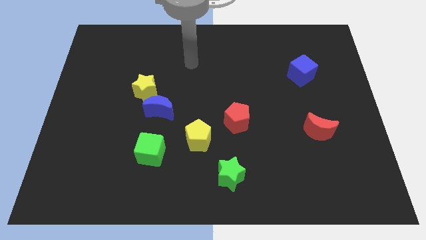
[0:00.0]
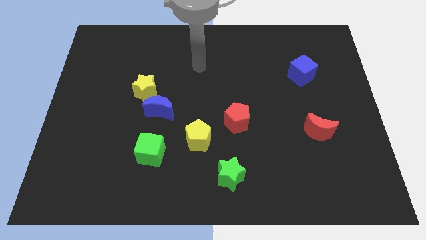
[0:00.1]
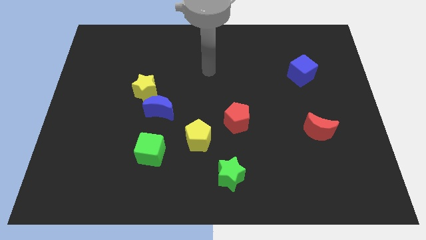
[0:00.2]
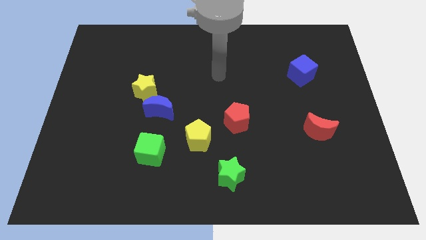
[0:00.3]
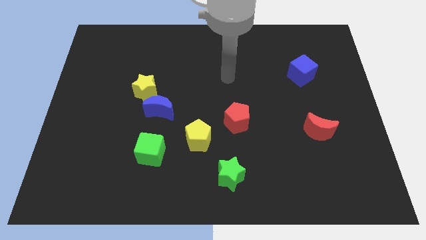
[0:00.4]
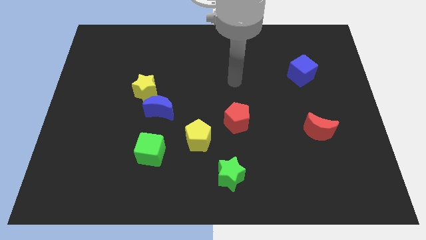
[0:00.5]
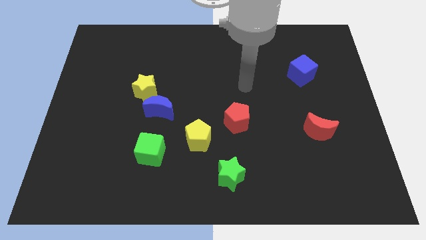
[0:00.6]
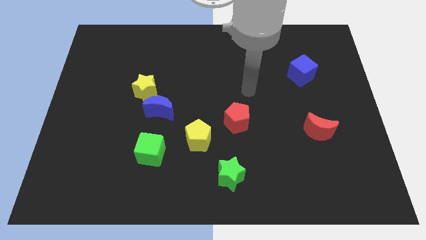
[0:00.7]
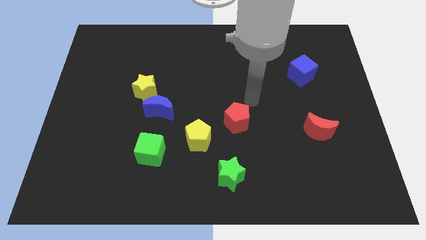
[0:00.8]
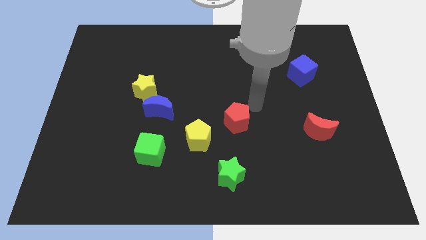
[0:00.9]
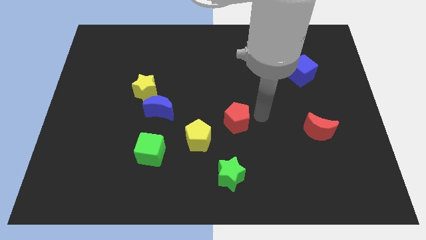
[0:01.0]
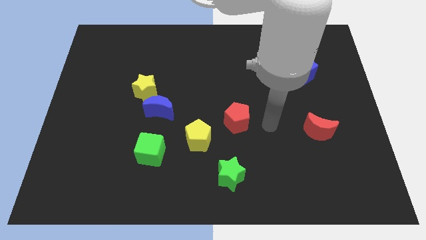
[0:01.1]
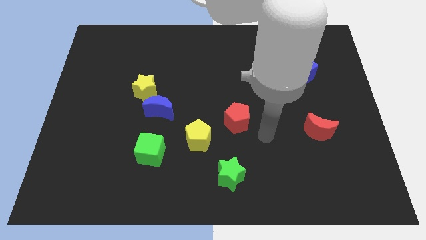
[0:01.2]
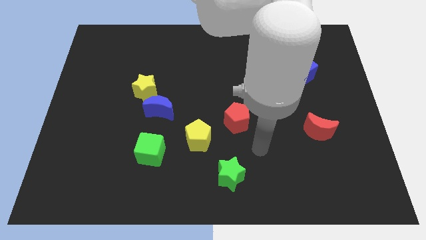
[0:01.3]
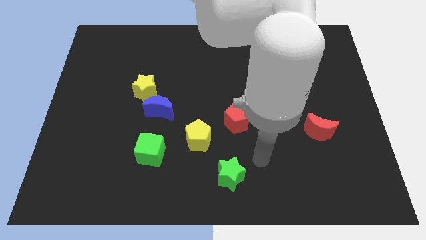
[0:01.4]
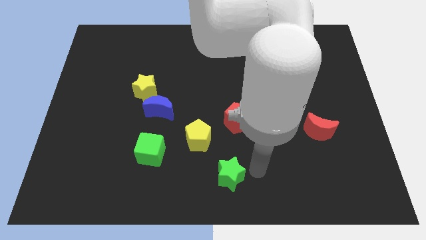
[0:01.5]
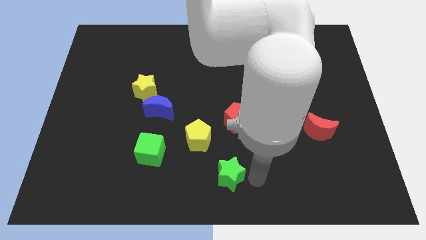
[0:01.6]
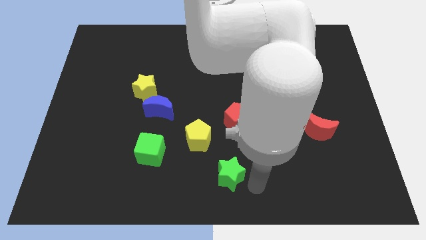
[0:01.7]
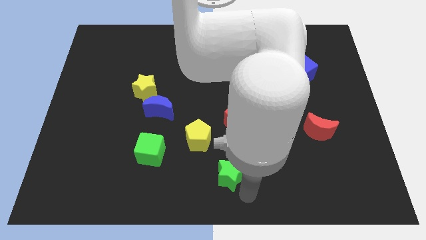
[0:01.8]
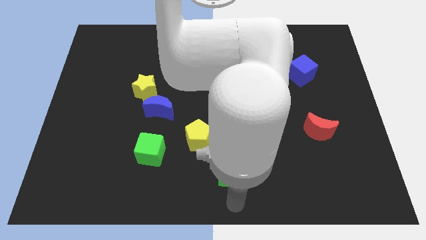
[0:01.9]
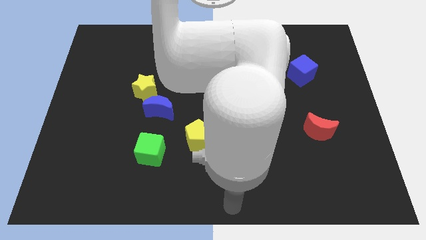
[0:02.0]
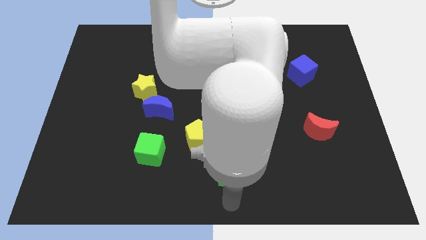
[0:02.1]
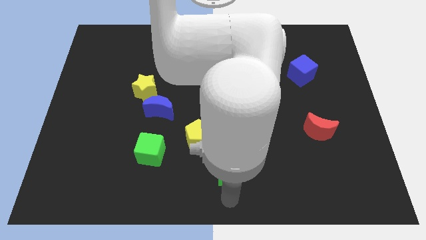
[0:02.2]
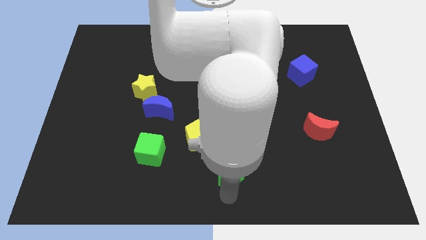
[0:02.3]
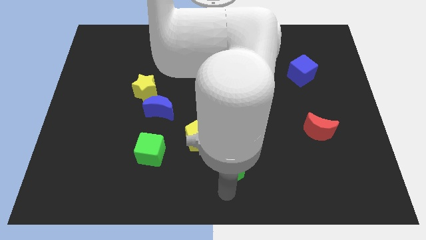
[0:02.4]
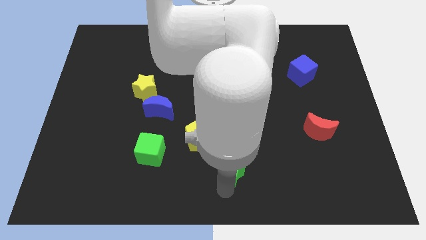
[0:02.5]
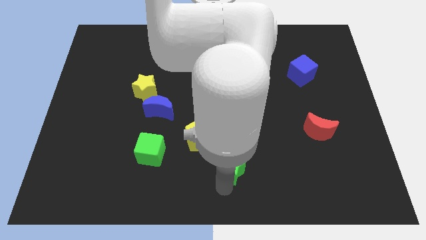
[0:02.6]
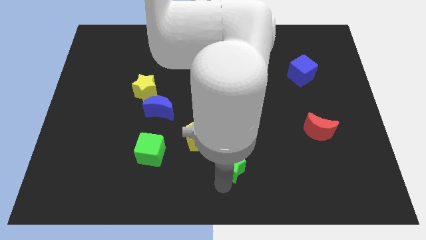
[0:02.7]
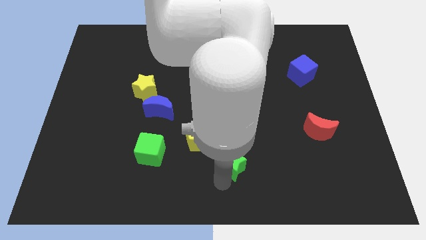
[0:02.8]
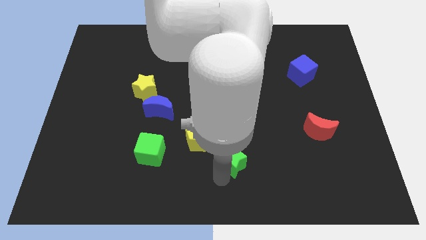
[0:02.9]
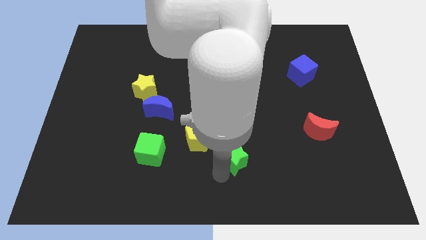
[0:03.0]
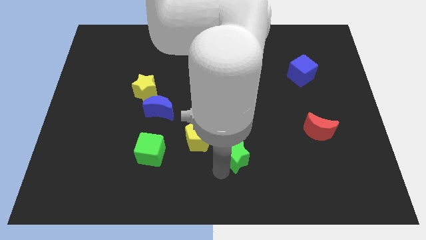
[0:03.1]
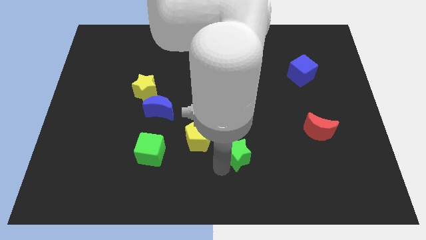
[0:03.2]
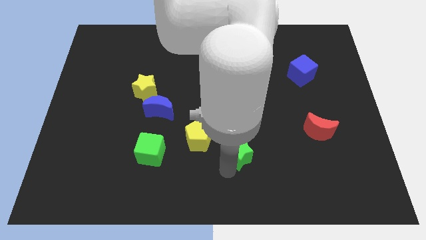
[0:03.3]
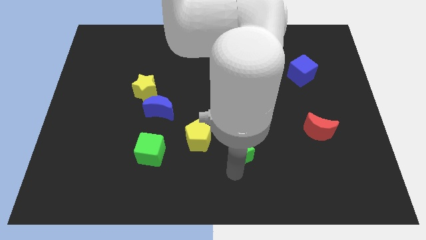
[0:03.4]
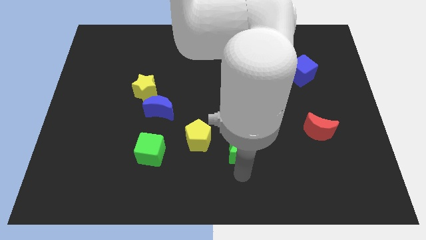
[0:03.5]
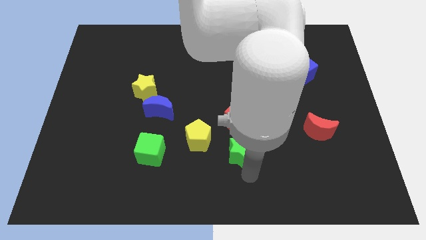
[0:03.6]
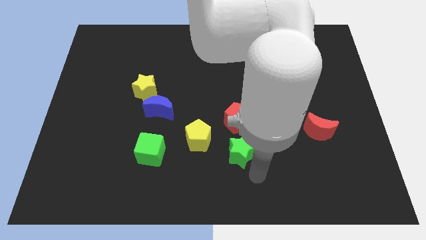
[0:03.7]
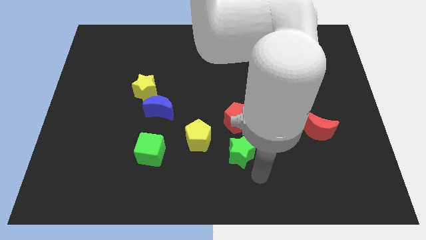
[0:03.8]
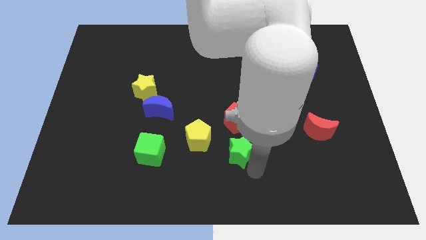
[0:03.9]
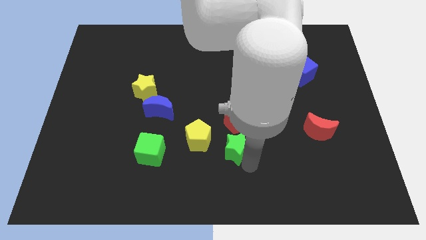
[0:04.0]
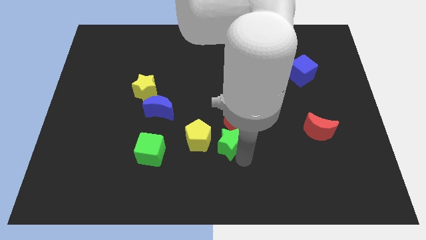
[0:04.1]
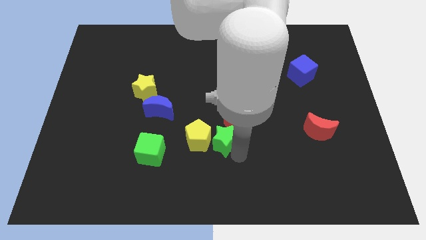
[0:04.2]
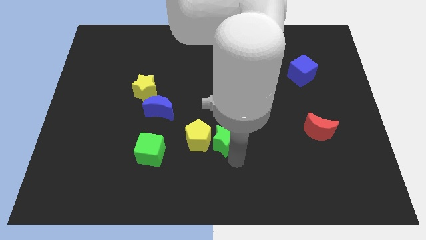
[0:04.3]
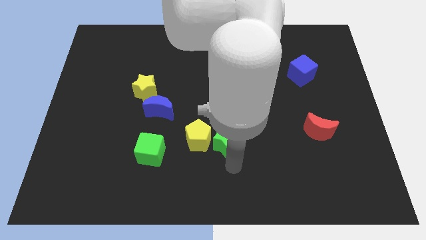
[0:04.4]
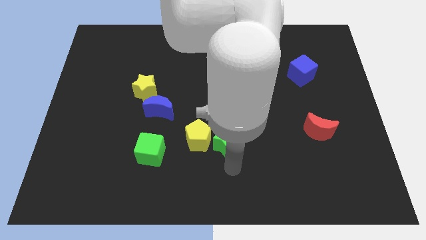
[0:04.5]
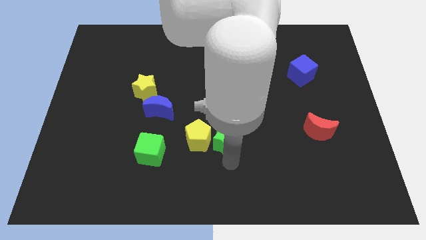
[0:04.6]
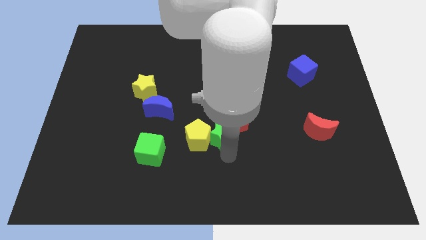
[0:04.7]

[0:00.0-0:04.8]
push the green star to the left of the red pentagon

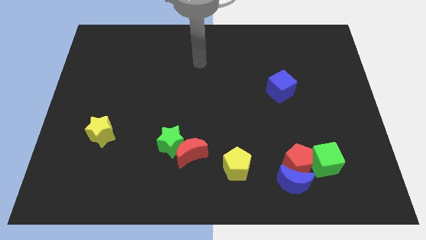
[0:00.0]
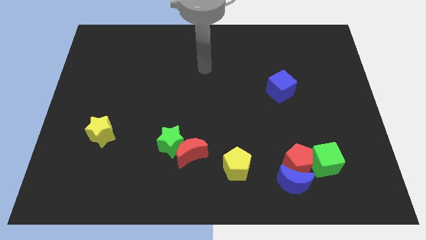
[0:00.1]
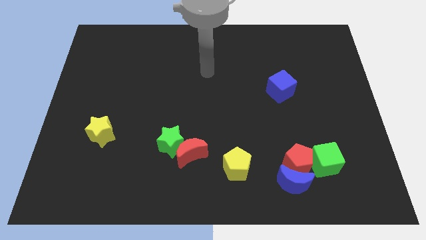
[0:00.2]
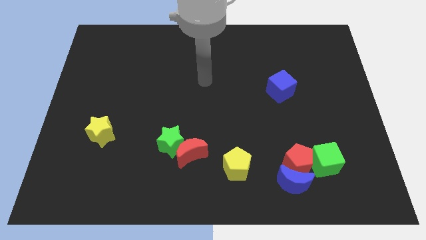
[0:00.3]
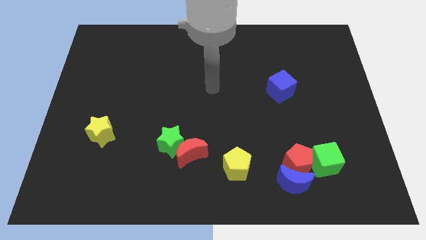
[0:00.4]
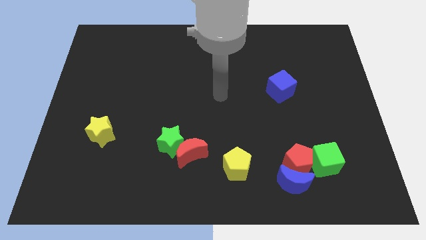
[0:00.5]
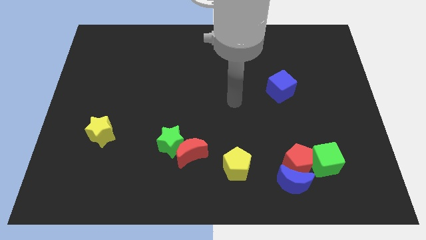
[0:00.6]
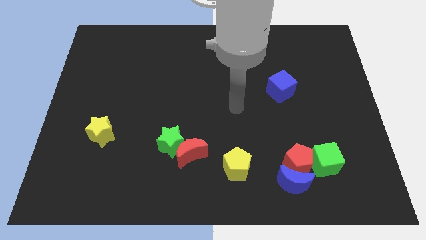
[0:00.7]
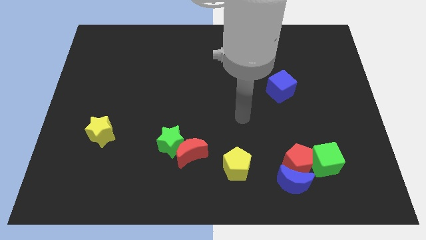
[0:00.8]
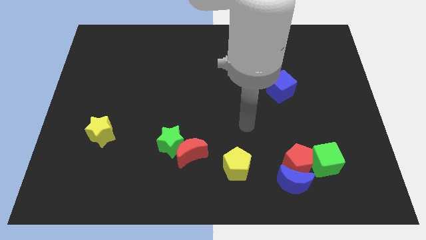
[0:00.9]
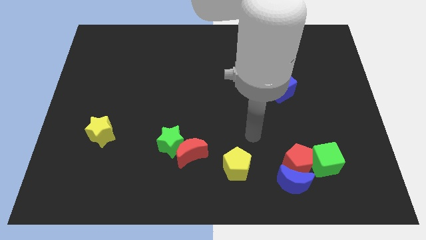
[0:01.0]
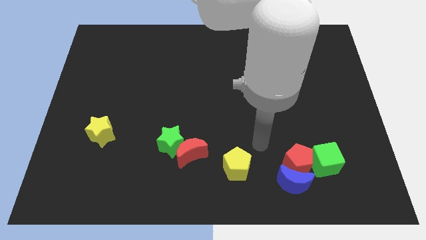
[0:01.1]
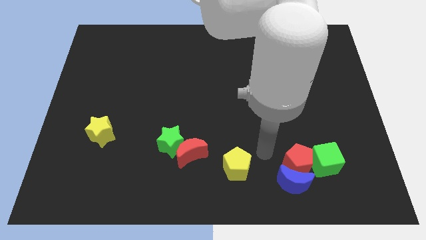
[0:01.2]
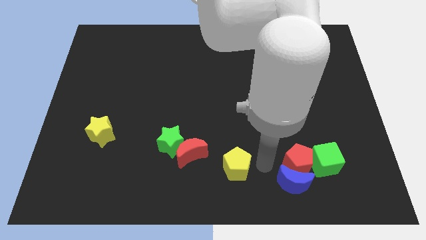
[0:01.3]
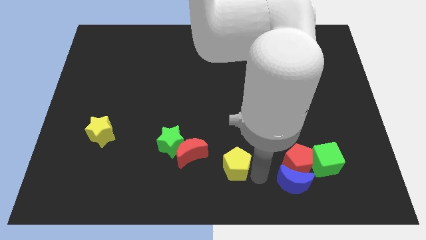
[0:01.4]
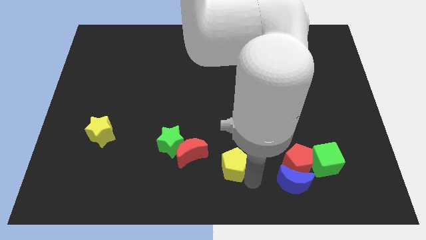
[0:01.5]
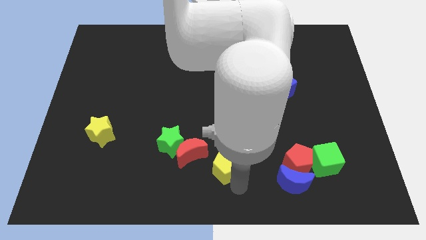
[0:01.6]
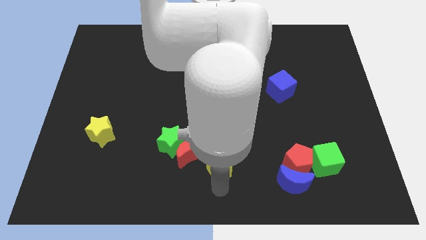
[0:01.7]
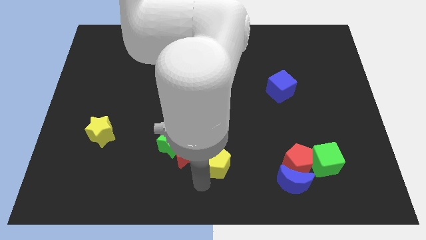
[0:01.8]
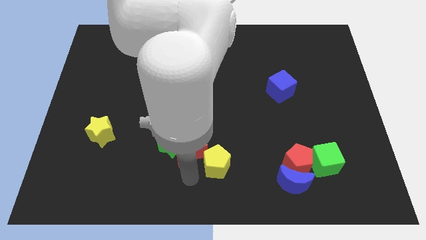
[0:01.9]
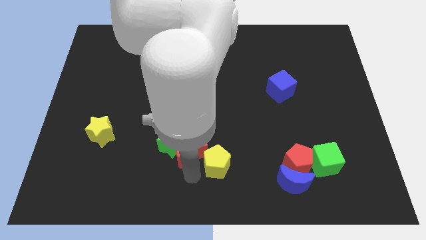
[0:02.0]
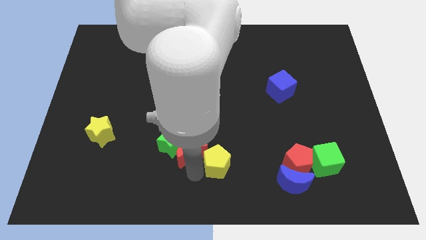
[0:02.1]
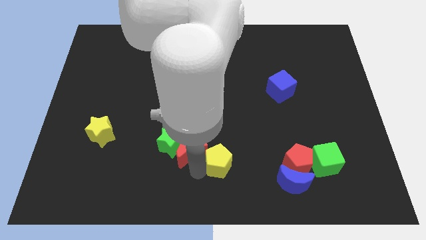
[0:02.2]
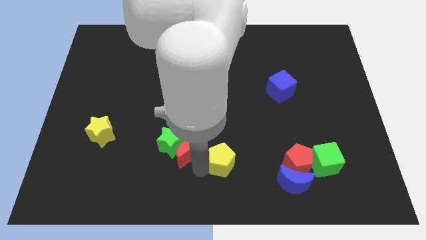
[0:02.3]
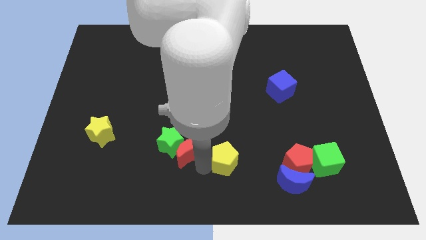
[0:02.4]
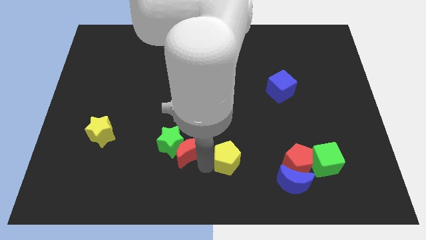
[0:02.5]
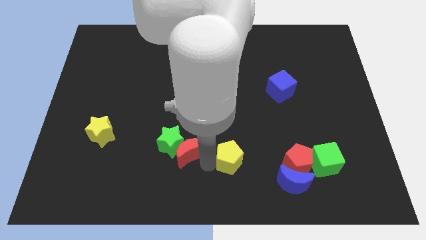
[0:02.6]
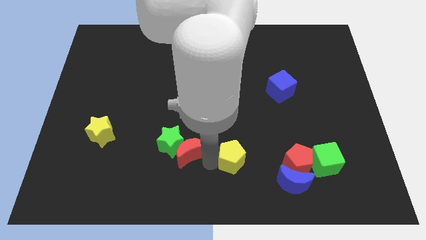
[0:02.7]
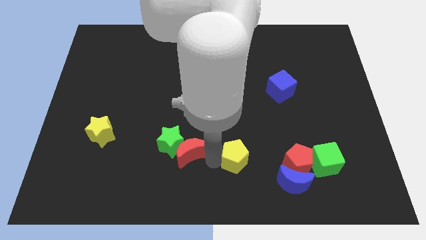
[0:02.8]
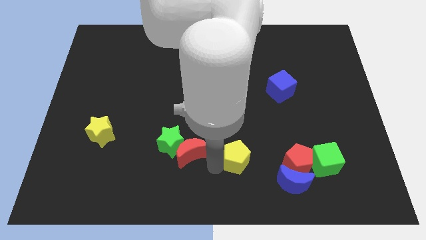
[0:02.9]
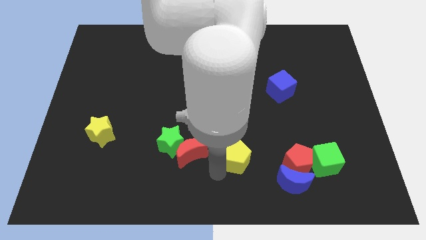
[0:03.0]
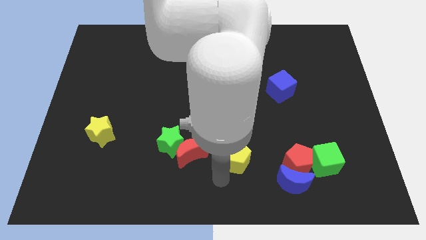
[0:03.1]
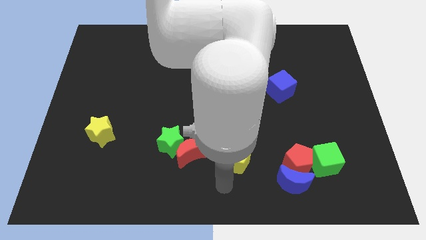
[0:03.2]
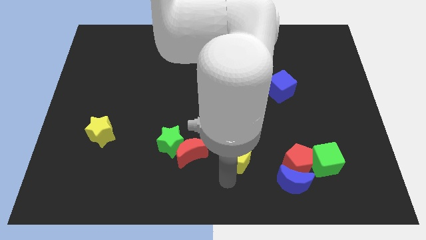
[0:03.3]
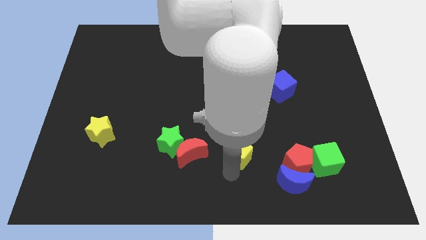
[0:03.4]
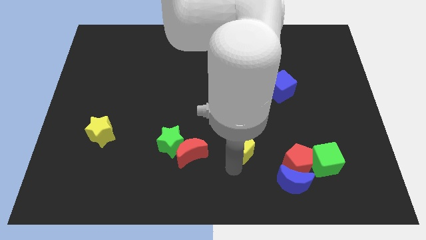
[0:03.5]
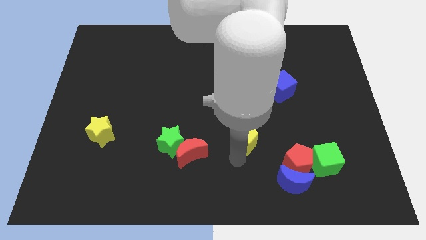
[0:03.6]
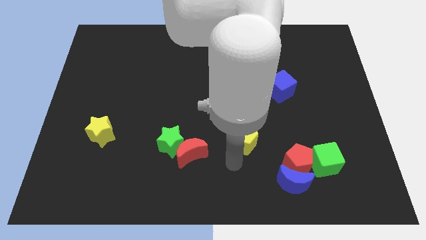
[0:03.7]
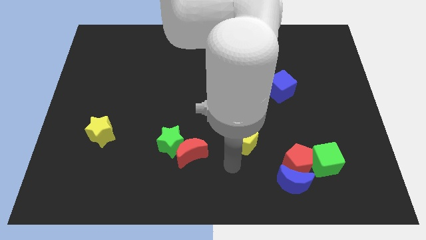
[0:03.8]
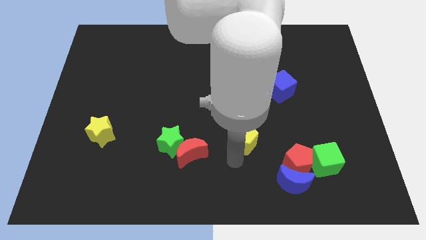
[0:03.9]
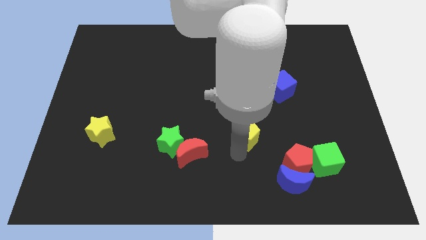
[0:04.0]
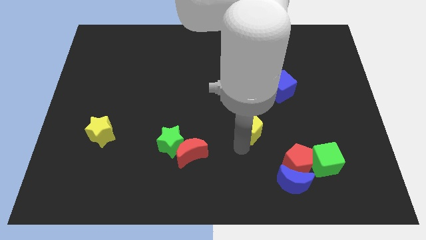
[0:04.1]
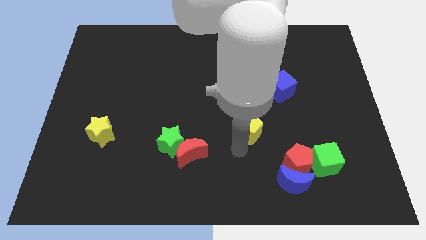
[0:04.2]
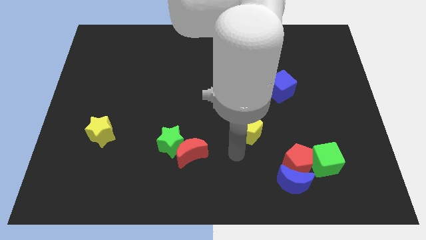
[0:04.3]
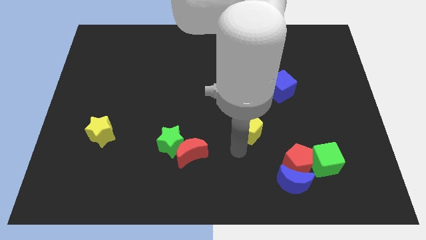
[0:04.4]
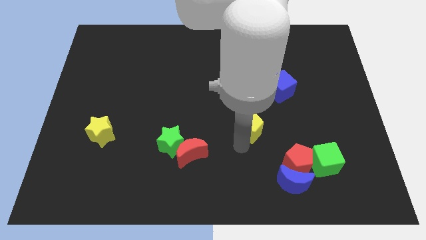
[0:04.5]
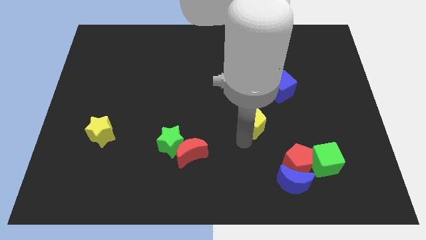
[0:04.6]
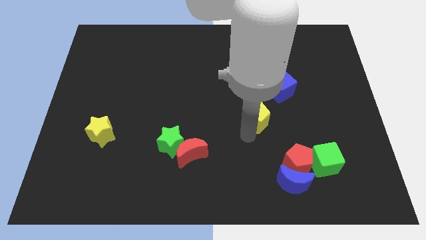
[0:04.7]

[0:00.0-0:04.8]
push the yellow pentagon to the bottom left side of the blue cube
